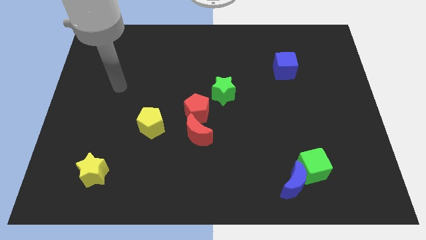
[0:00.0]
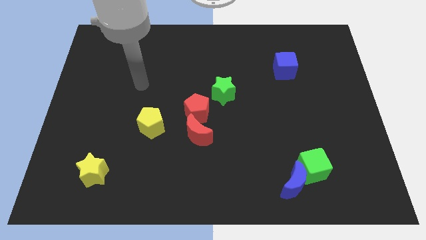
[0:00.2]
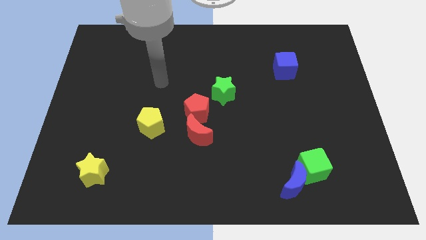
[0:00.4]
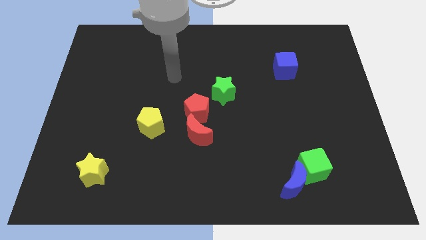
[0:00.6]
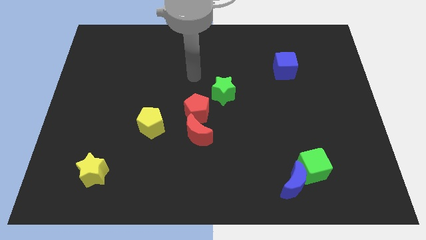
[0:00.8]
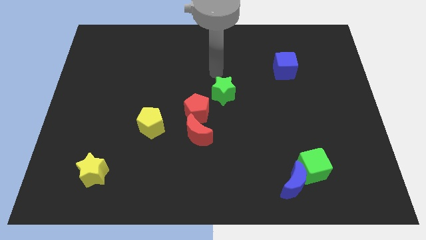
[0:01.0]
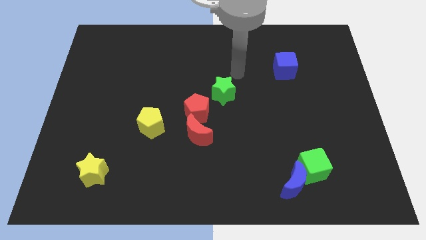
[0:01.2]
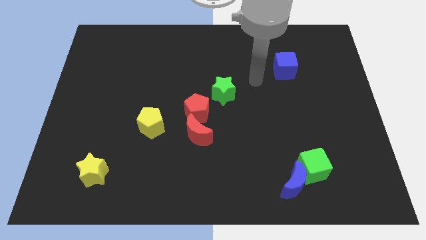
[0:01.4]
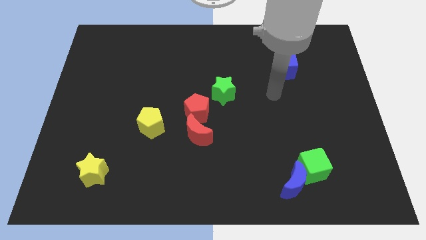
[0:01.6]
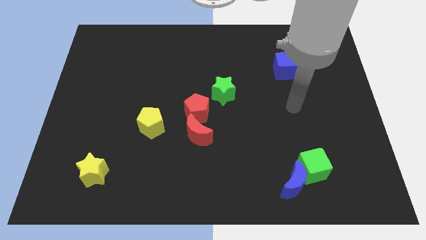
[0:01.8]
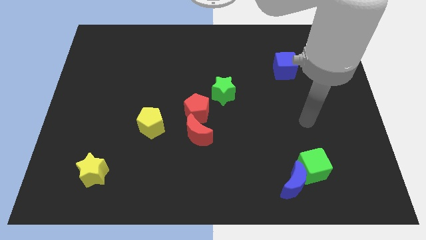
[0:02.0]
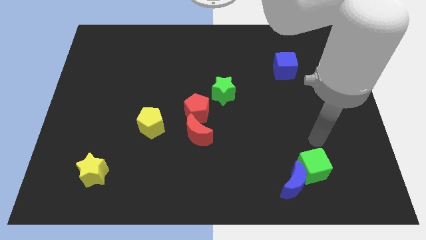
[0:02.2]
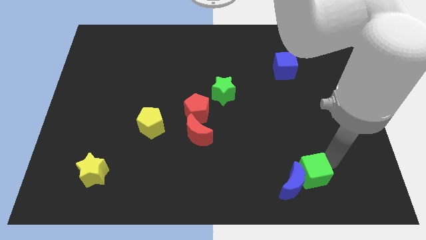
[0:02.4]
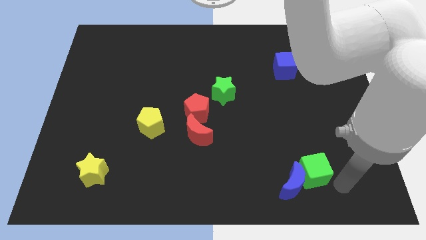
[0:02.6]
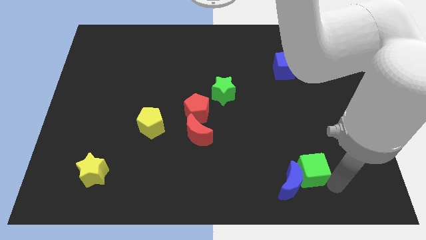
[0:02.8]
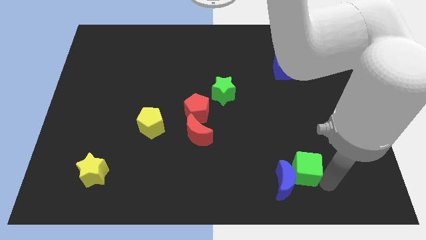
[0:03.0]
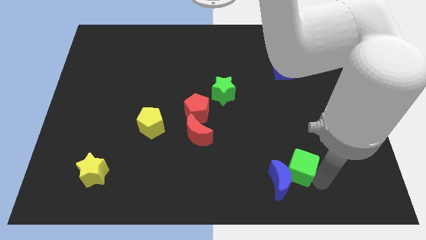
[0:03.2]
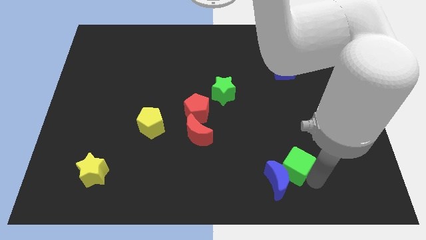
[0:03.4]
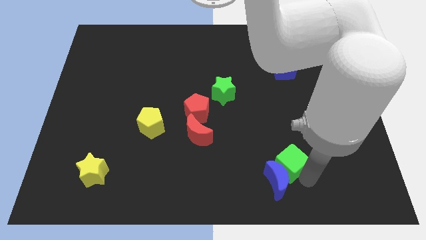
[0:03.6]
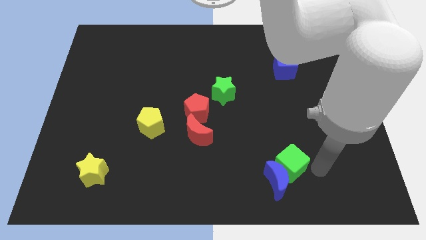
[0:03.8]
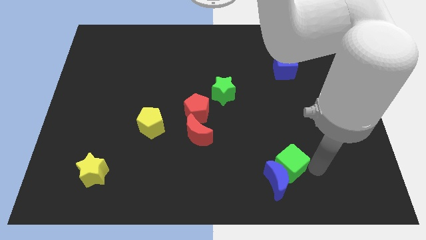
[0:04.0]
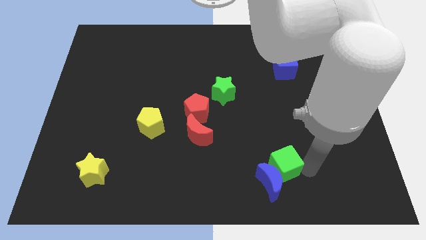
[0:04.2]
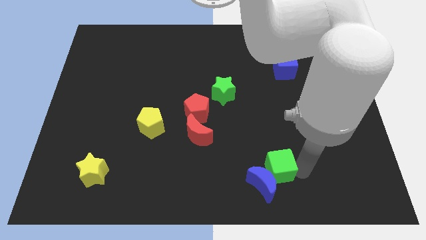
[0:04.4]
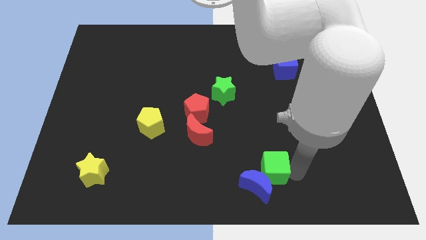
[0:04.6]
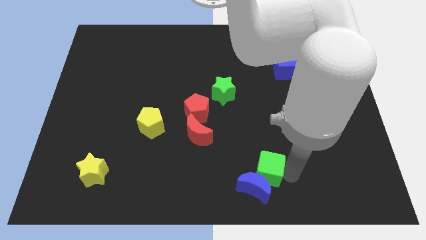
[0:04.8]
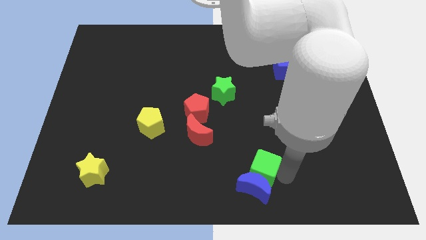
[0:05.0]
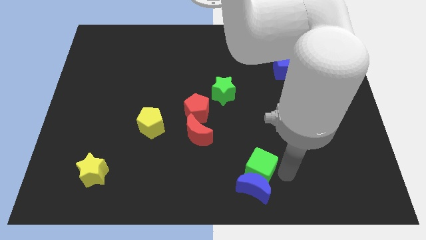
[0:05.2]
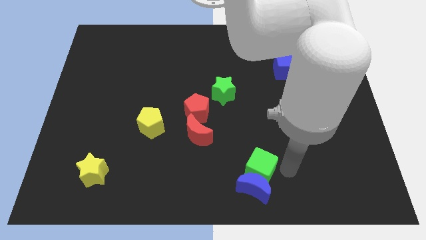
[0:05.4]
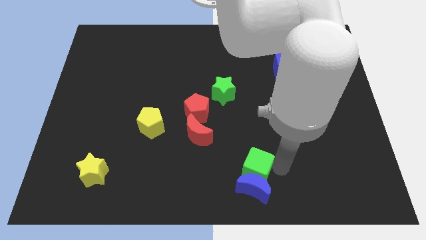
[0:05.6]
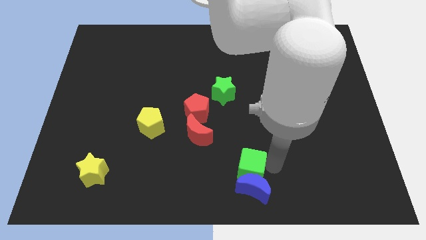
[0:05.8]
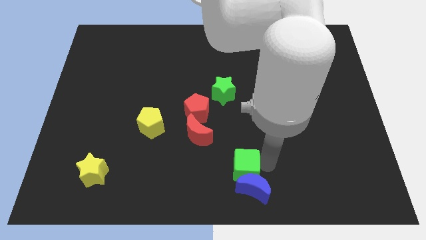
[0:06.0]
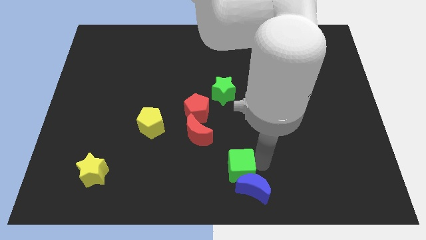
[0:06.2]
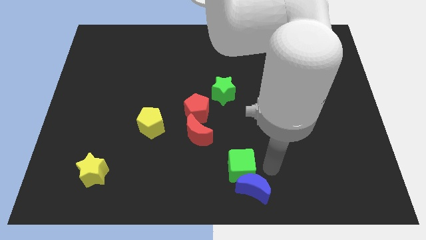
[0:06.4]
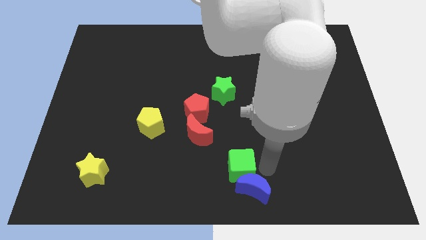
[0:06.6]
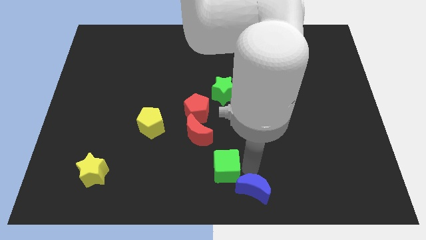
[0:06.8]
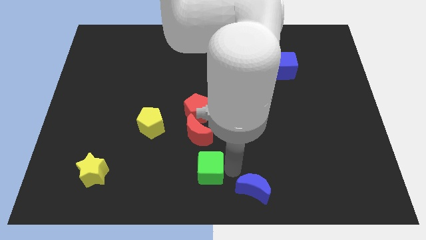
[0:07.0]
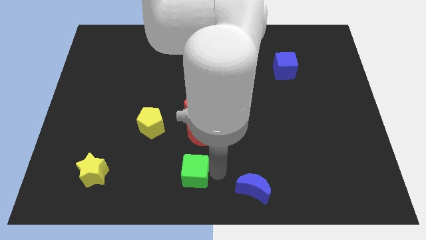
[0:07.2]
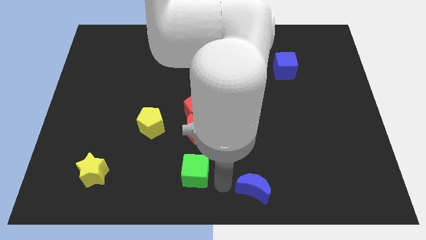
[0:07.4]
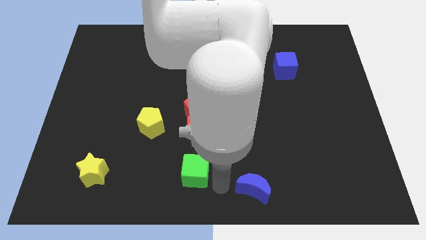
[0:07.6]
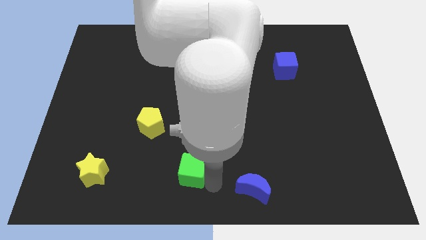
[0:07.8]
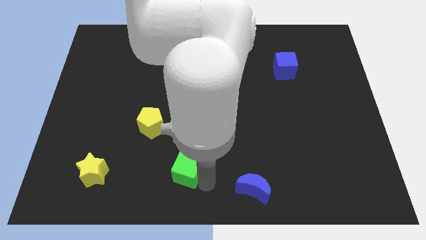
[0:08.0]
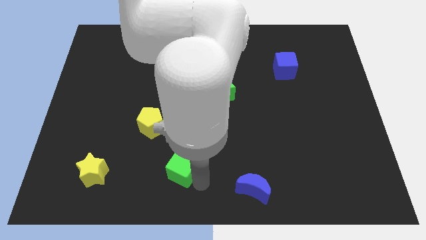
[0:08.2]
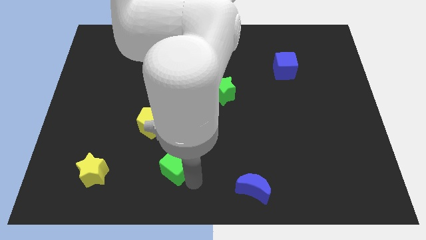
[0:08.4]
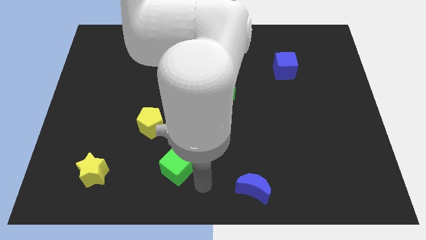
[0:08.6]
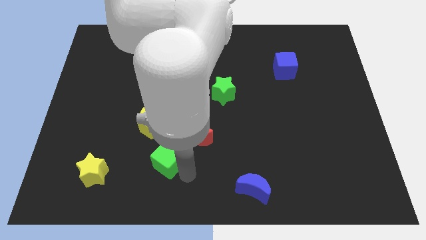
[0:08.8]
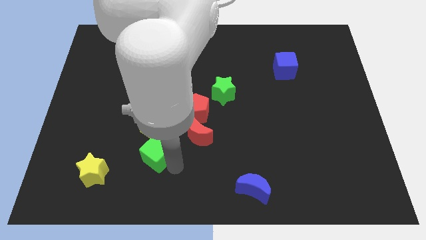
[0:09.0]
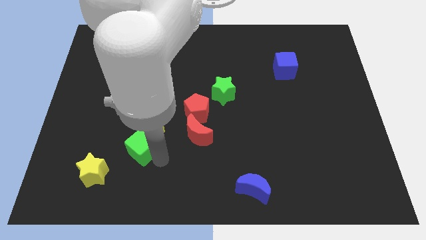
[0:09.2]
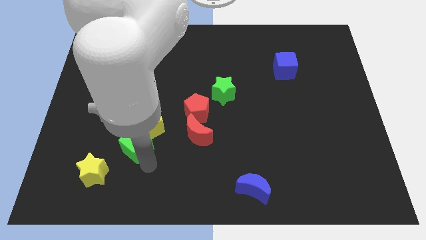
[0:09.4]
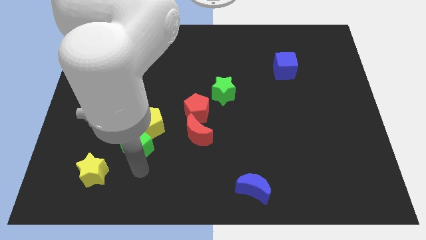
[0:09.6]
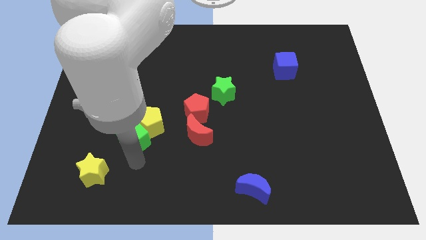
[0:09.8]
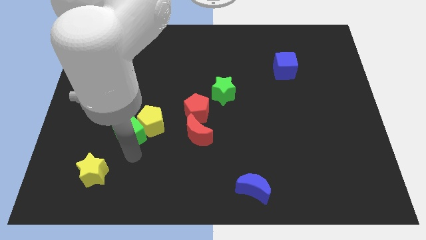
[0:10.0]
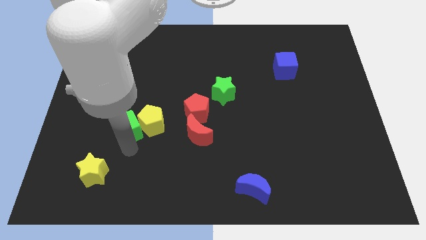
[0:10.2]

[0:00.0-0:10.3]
put the green cube to the top left of the yellow pentagon

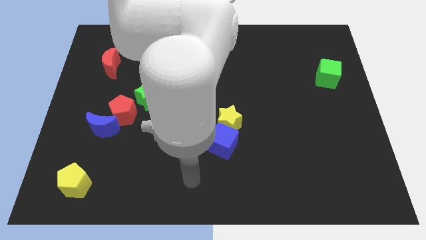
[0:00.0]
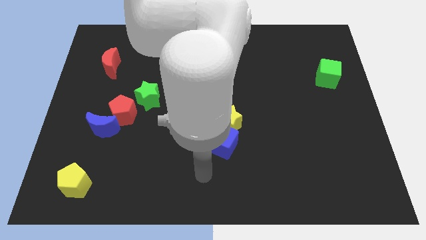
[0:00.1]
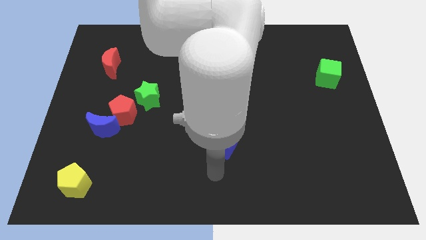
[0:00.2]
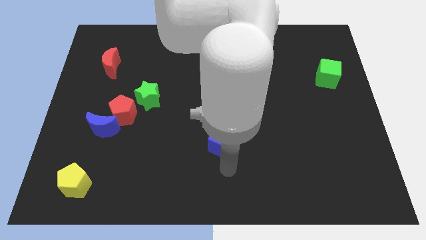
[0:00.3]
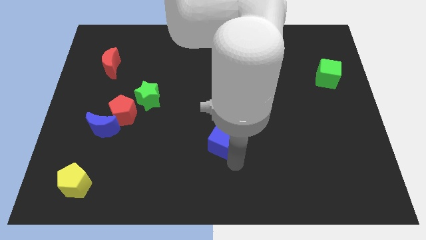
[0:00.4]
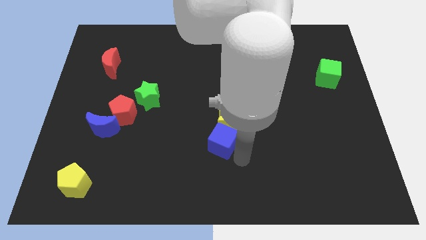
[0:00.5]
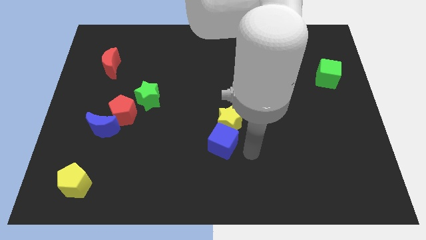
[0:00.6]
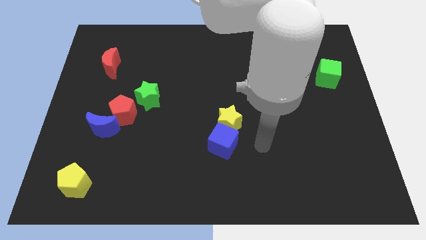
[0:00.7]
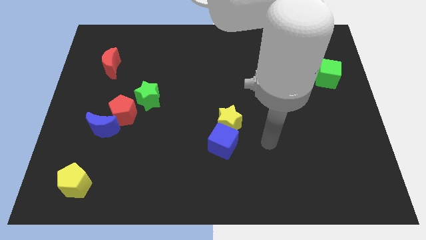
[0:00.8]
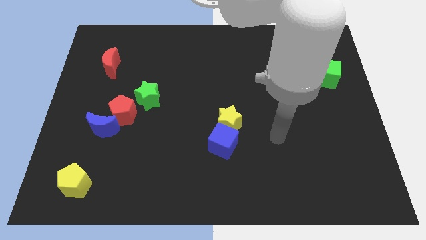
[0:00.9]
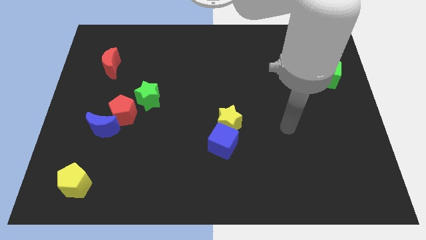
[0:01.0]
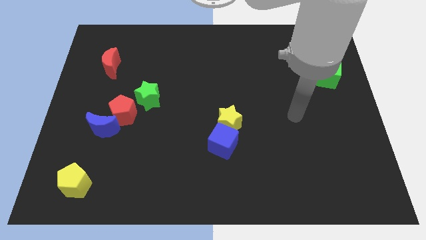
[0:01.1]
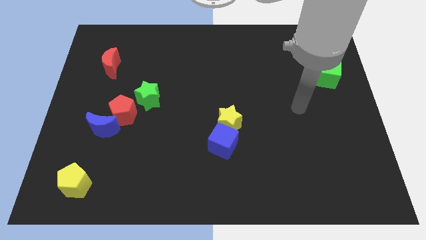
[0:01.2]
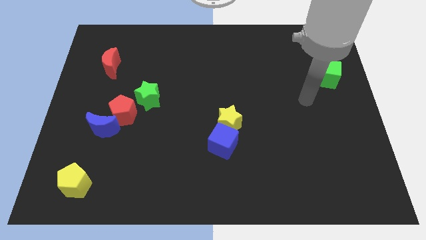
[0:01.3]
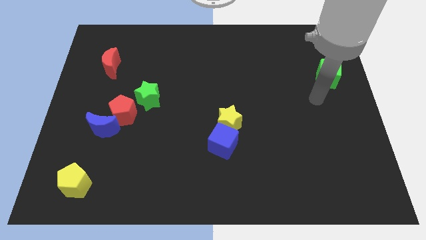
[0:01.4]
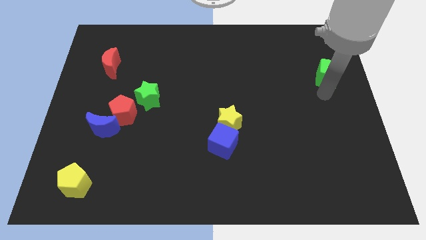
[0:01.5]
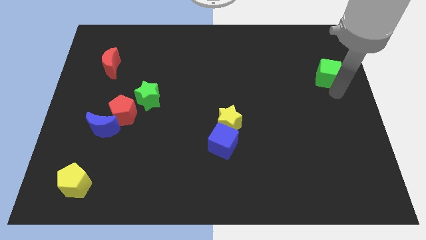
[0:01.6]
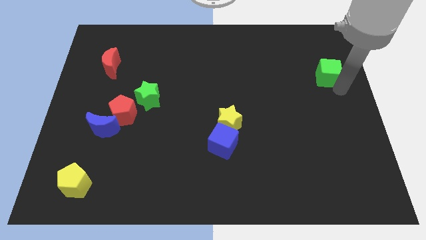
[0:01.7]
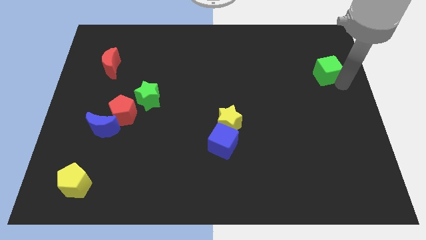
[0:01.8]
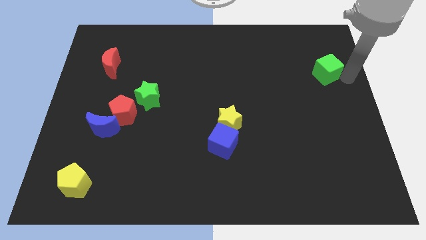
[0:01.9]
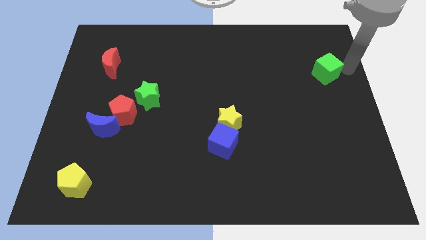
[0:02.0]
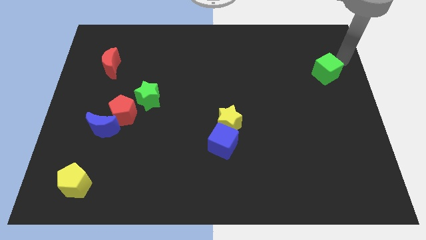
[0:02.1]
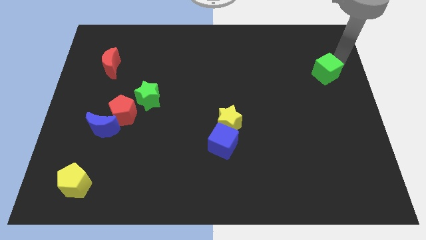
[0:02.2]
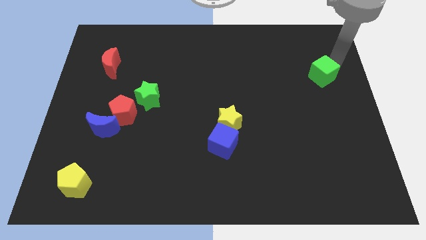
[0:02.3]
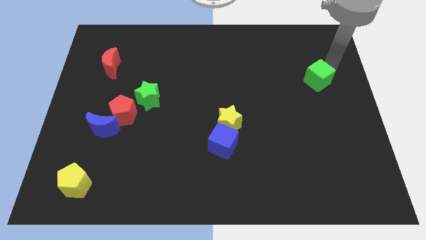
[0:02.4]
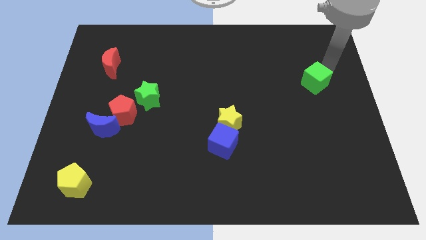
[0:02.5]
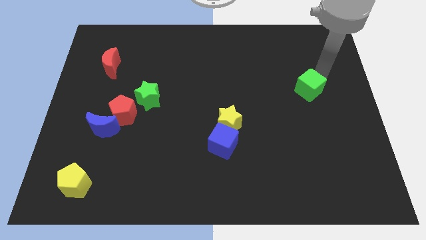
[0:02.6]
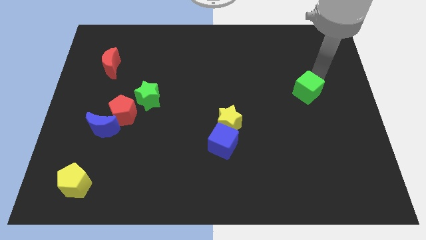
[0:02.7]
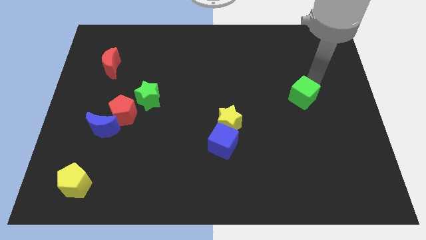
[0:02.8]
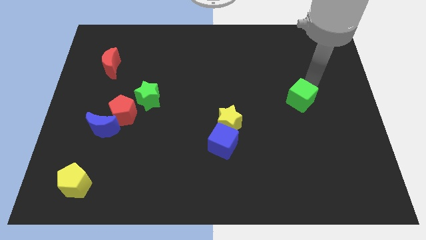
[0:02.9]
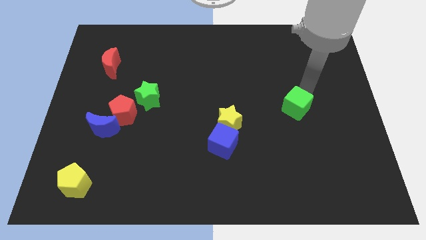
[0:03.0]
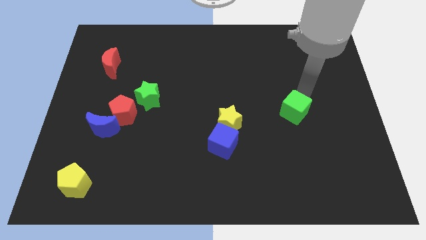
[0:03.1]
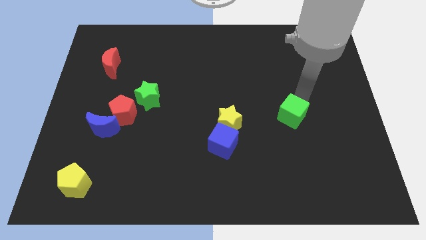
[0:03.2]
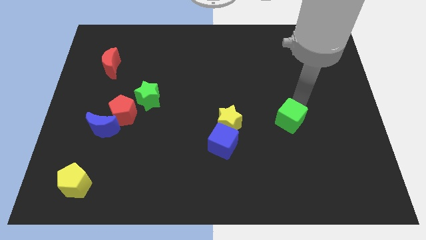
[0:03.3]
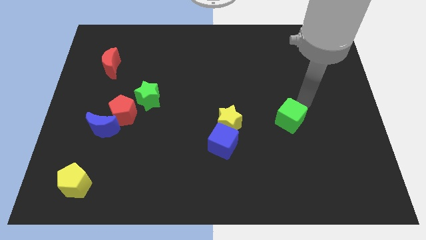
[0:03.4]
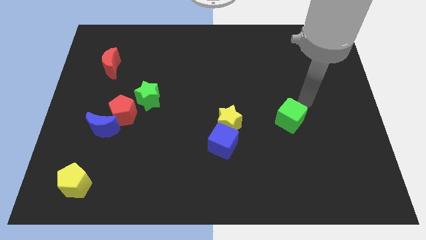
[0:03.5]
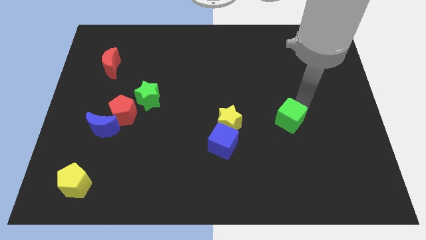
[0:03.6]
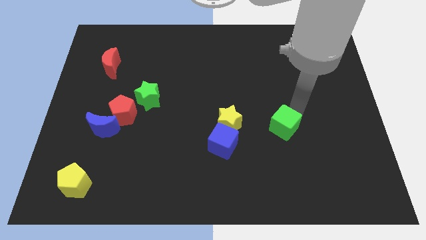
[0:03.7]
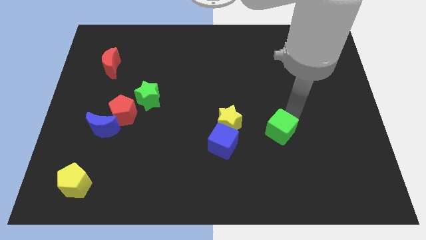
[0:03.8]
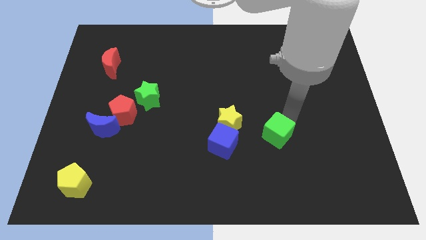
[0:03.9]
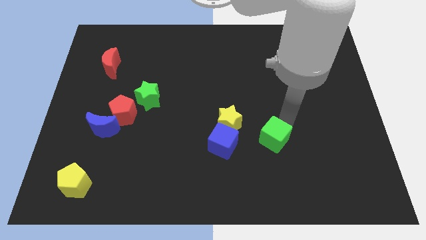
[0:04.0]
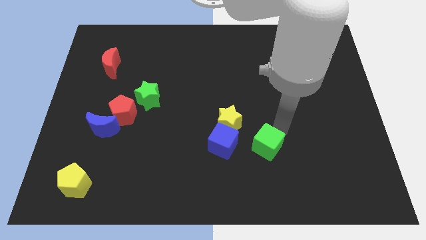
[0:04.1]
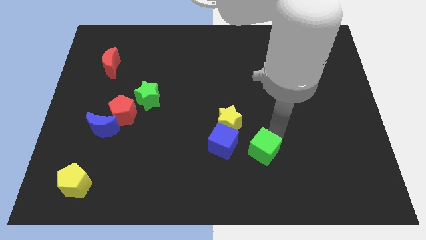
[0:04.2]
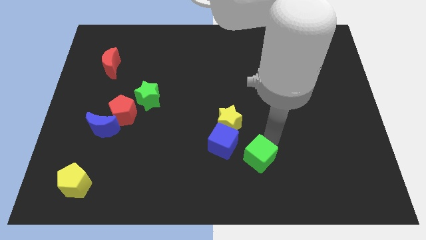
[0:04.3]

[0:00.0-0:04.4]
push the green cube to the bottom right side of the blue cube
